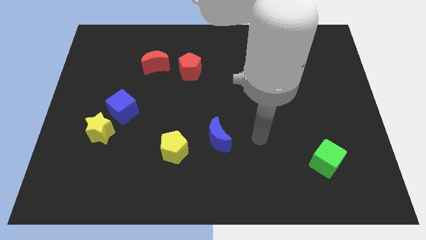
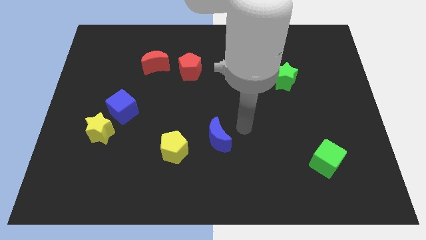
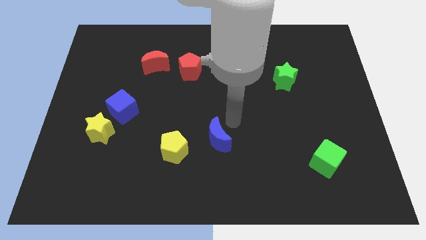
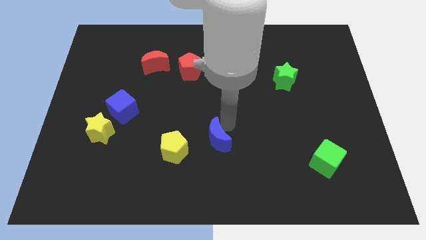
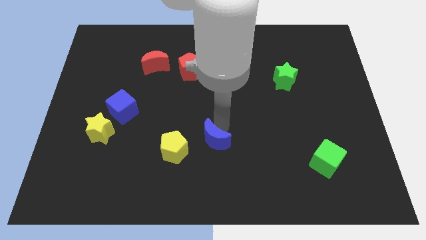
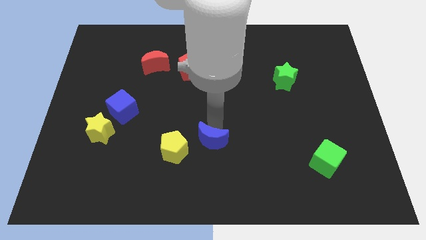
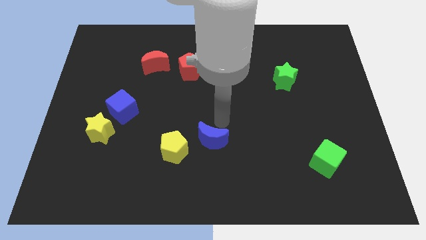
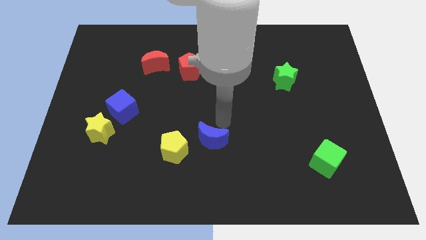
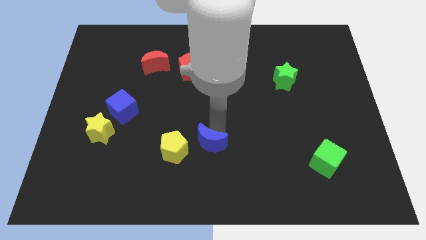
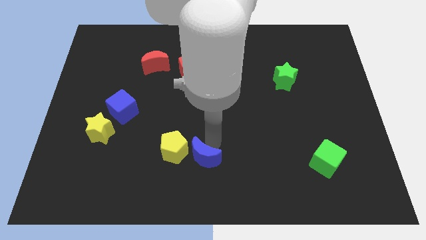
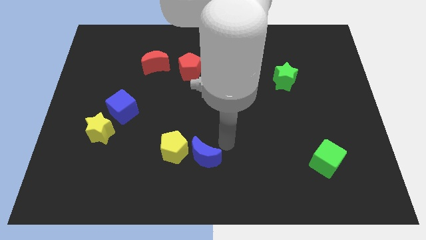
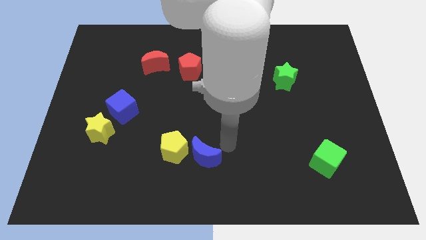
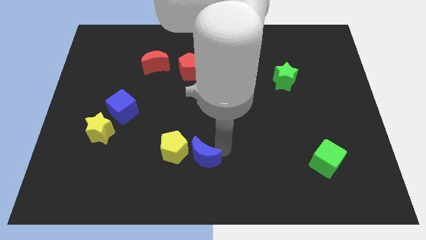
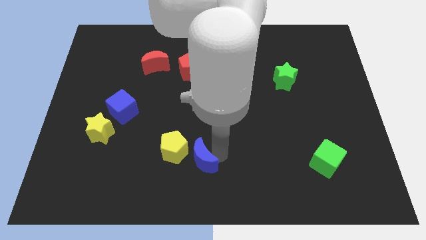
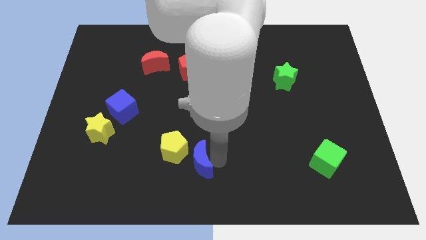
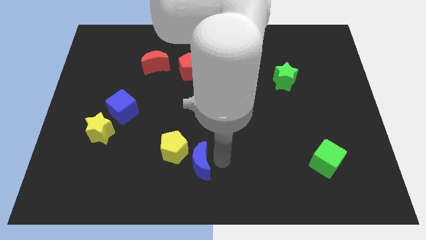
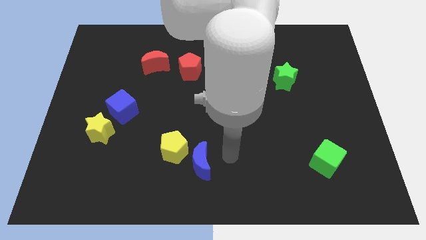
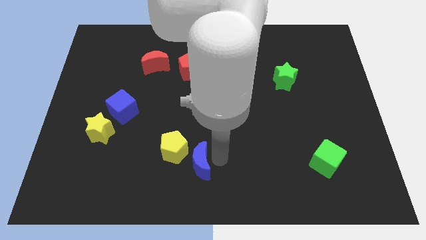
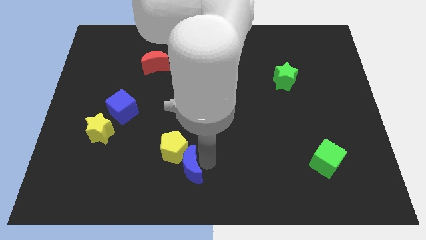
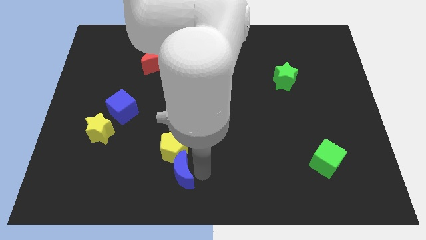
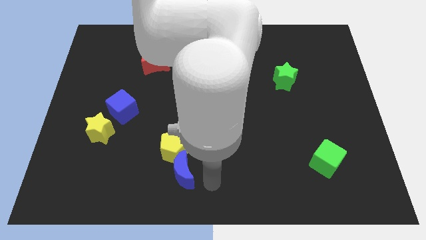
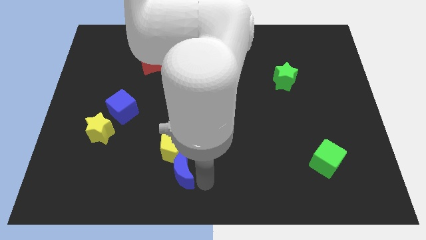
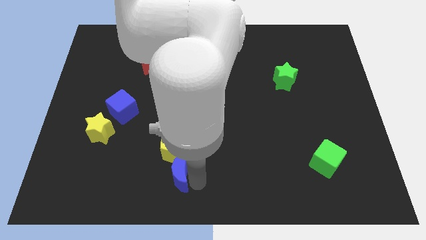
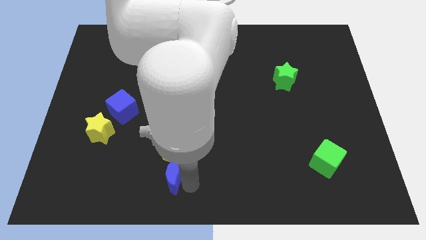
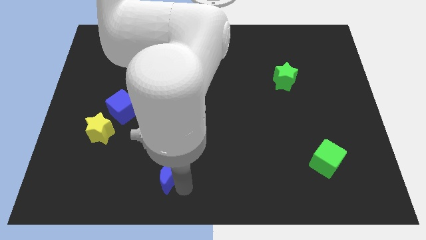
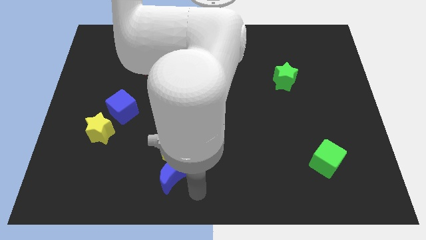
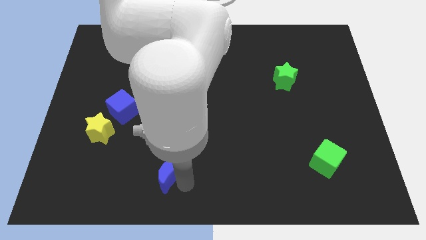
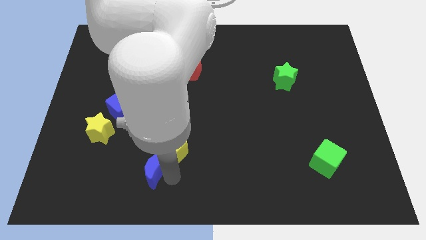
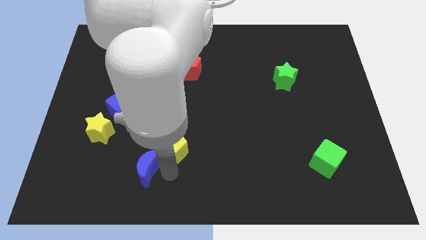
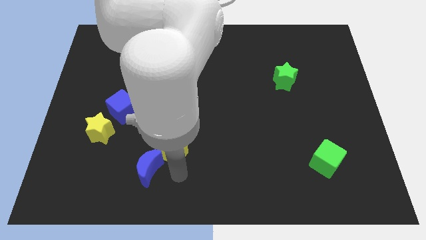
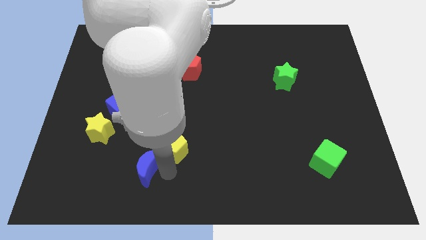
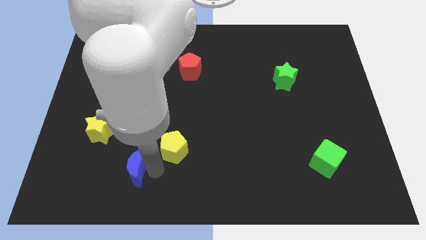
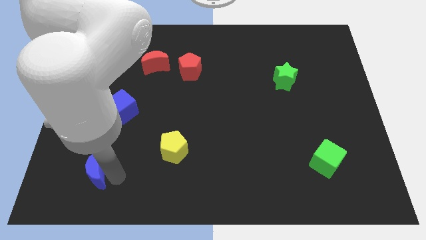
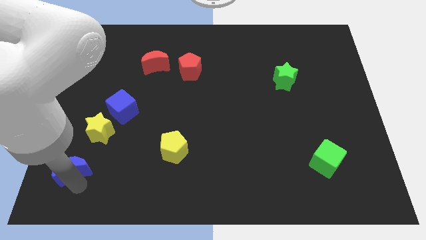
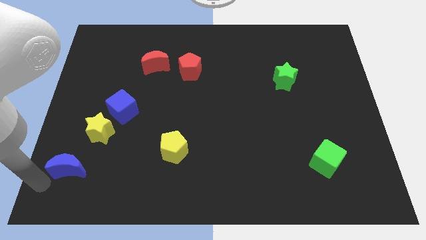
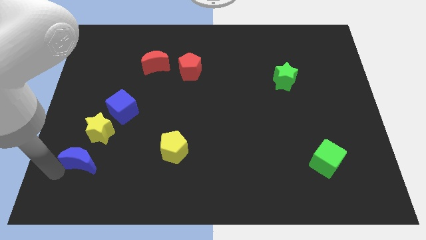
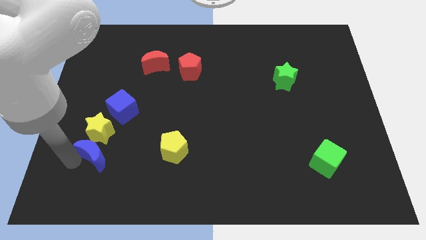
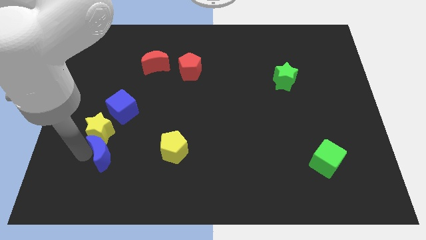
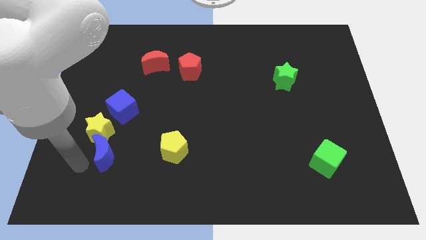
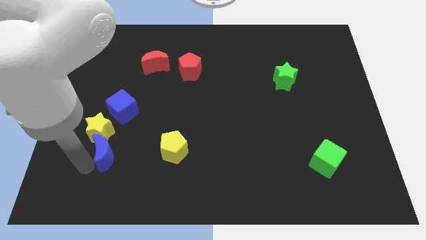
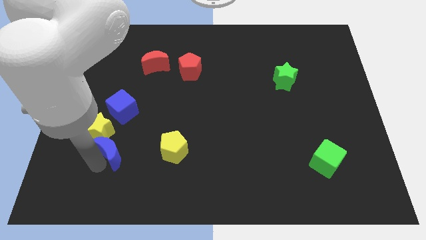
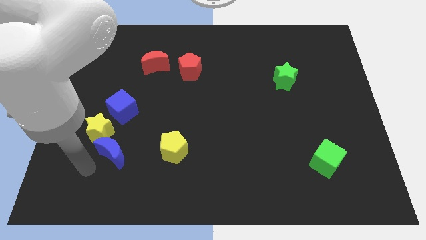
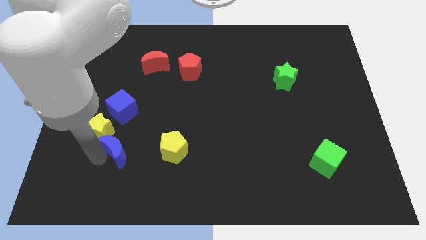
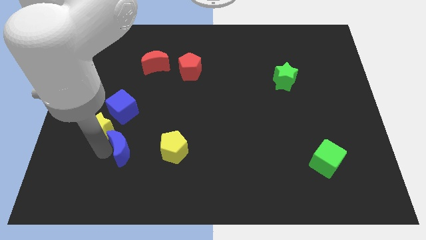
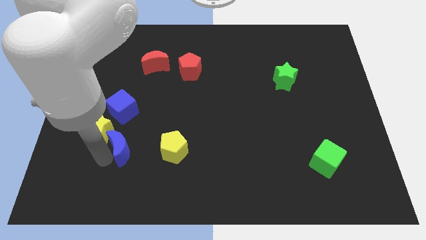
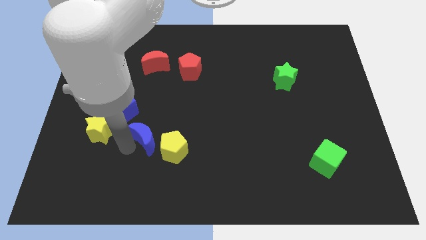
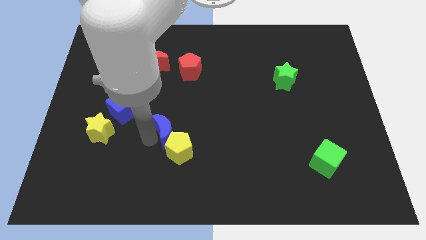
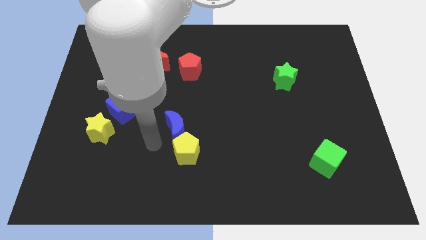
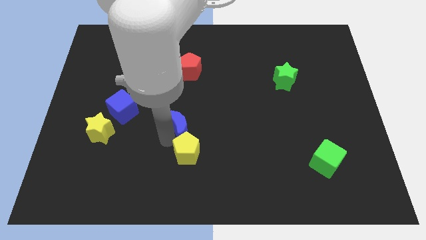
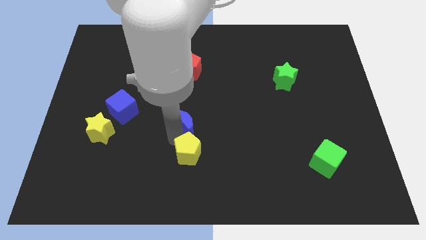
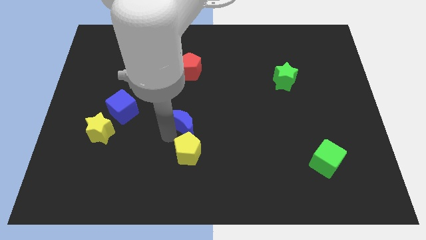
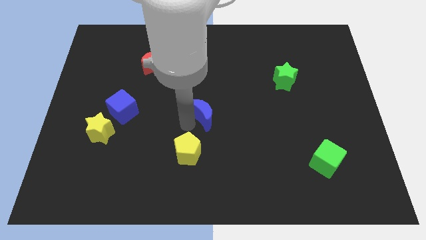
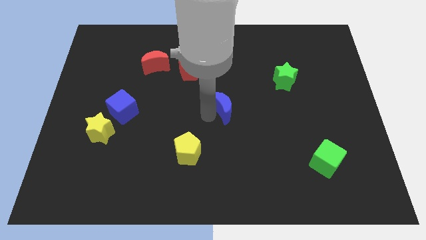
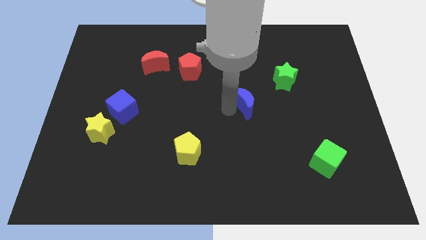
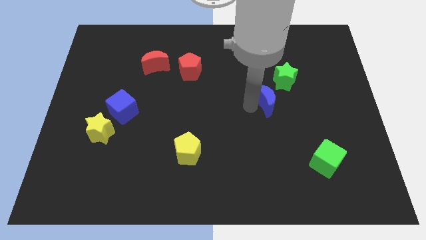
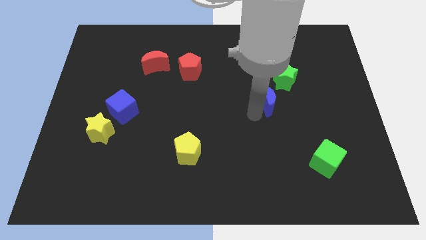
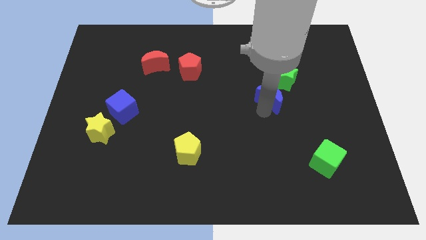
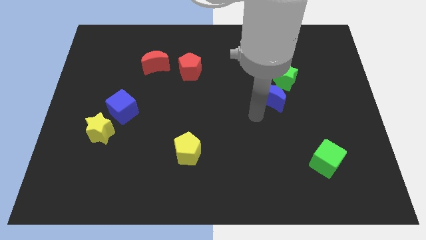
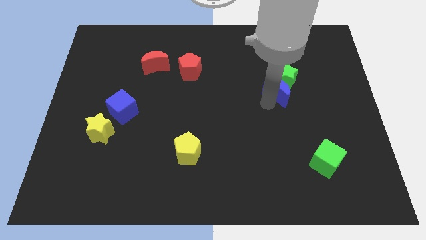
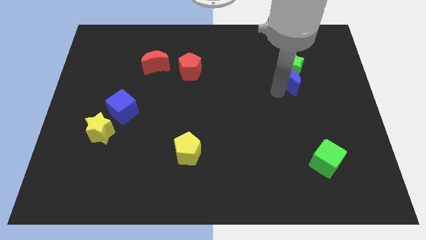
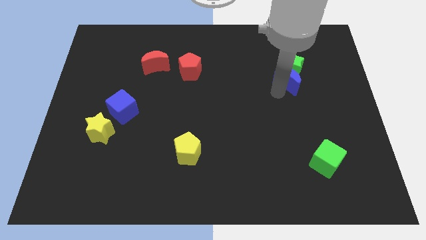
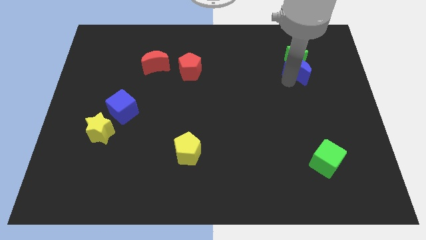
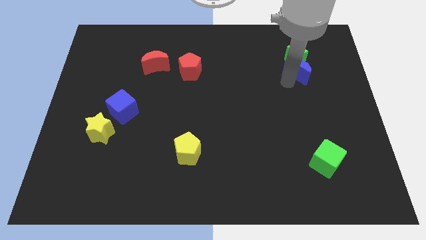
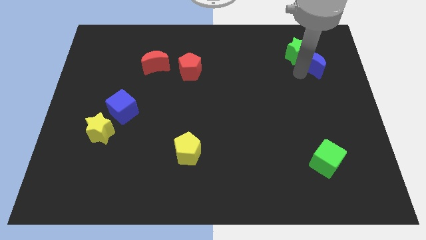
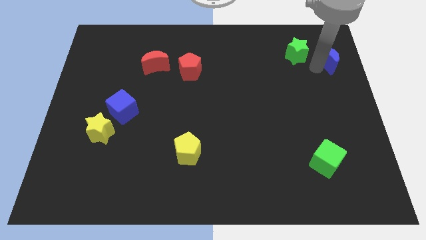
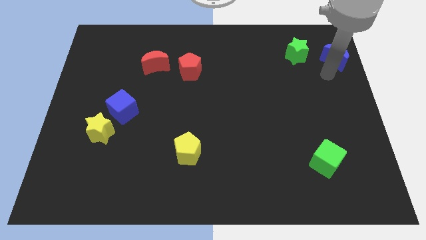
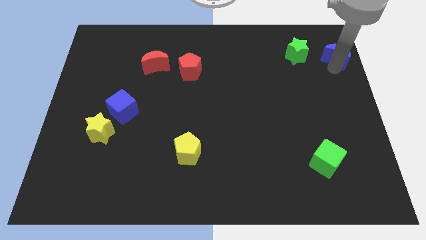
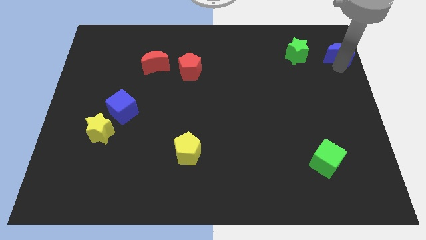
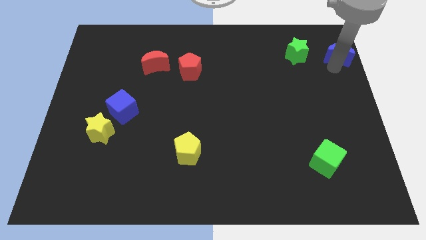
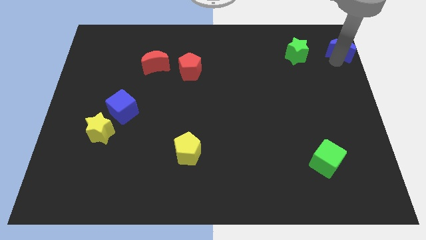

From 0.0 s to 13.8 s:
move the blue moon to the upper right corner
